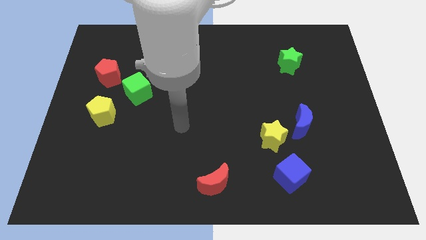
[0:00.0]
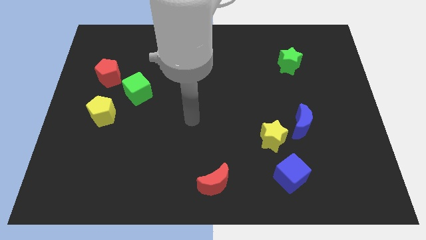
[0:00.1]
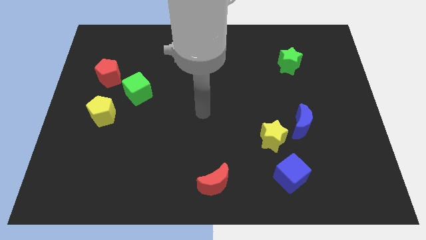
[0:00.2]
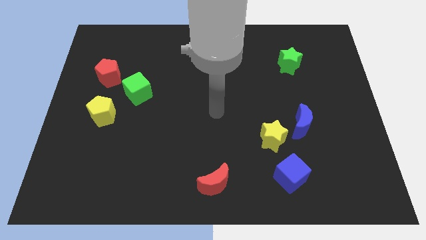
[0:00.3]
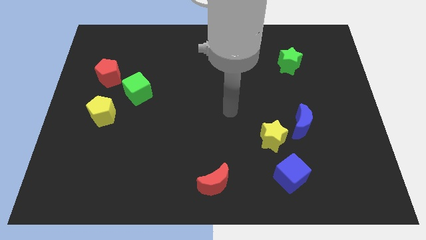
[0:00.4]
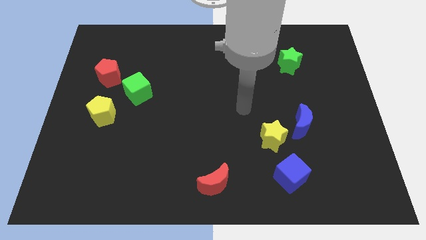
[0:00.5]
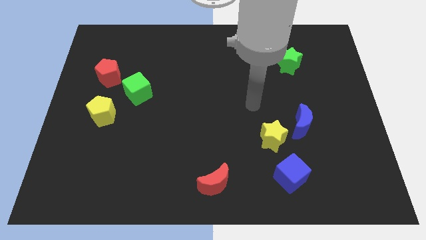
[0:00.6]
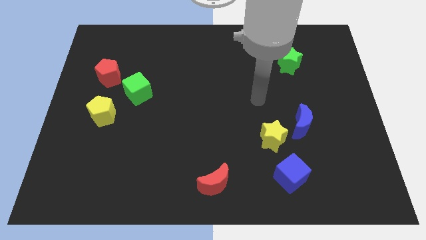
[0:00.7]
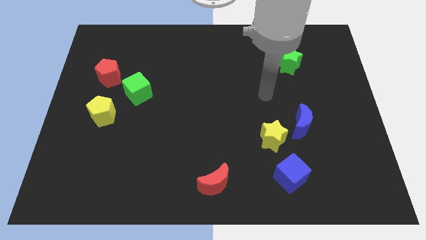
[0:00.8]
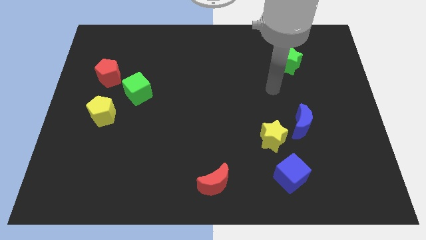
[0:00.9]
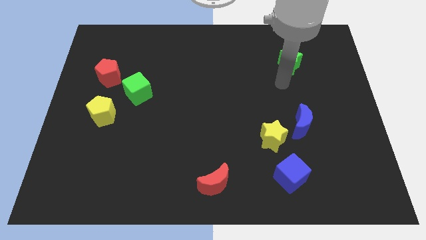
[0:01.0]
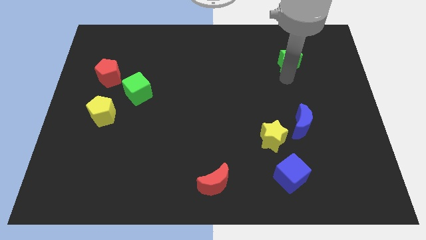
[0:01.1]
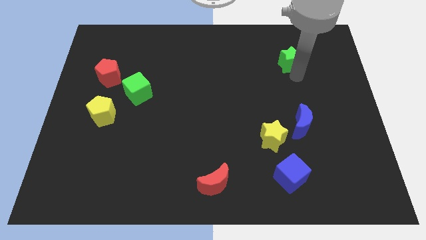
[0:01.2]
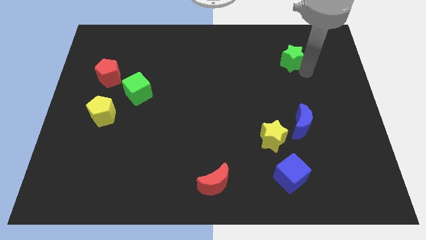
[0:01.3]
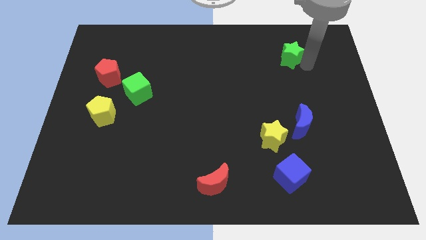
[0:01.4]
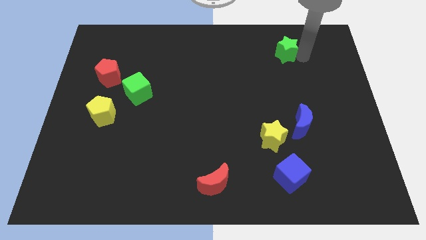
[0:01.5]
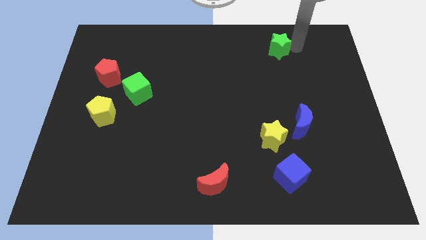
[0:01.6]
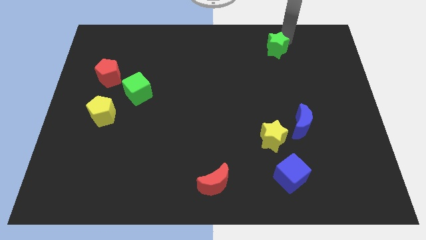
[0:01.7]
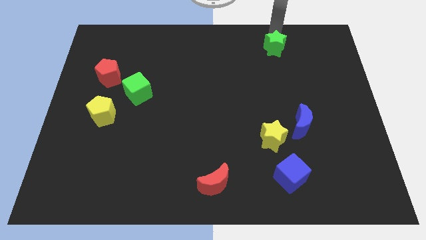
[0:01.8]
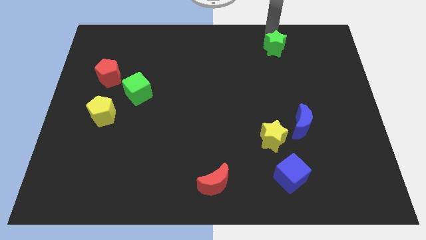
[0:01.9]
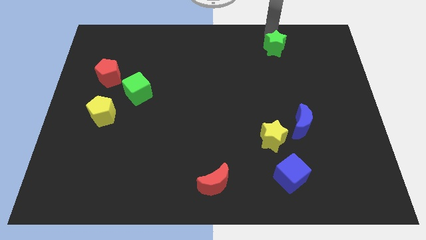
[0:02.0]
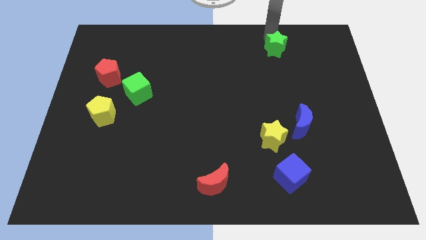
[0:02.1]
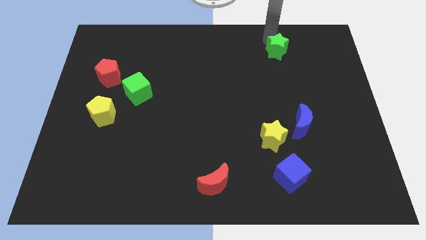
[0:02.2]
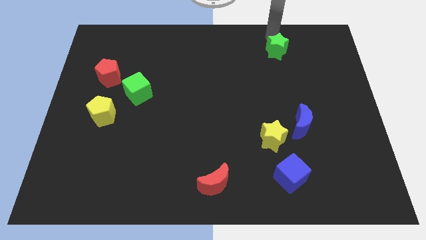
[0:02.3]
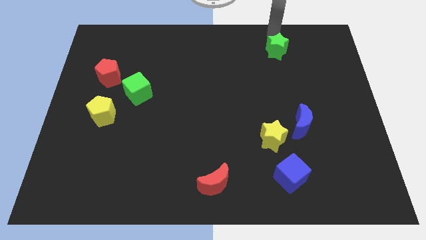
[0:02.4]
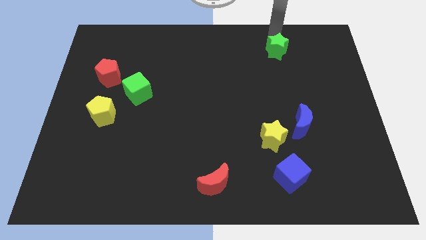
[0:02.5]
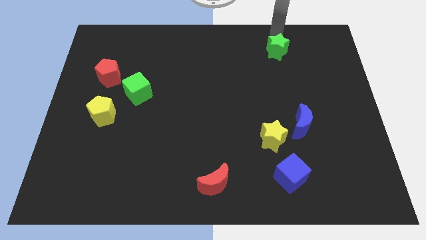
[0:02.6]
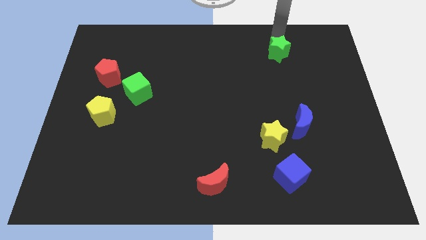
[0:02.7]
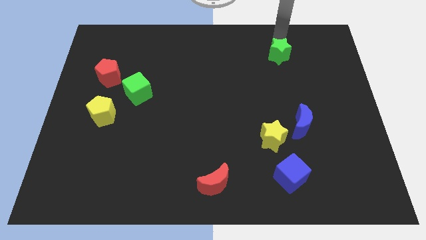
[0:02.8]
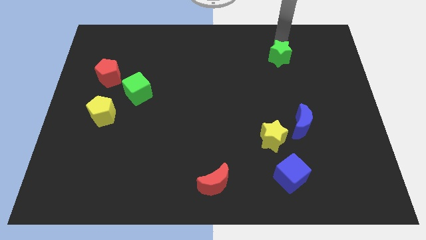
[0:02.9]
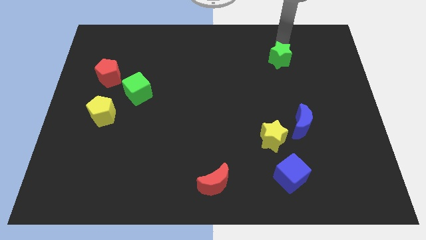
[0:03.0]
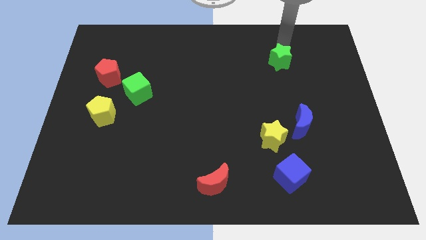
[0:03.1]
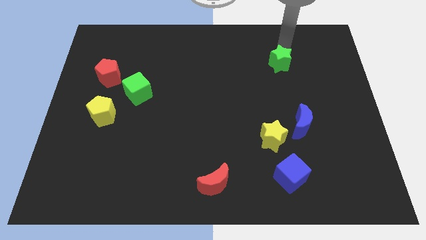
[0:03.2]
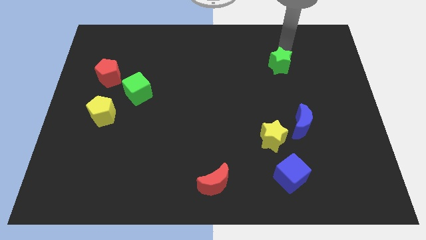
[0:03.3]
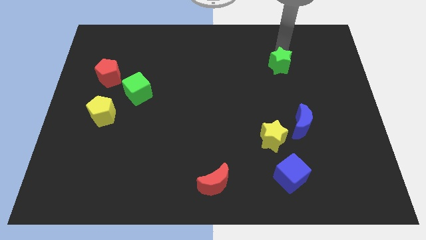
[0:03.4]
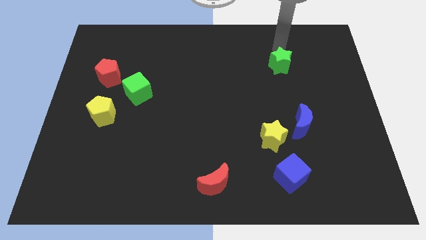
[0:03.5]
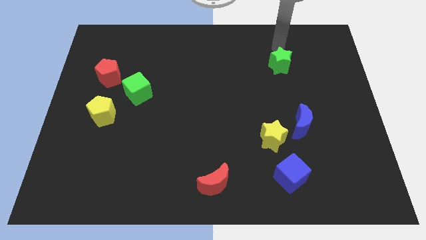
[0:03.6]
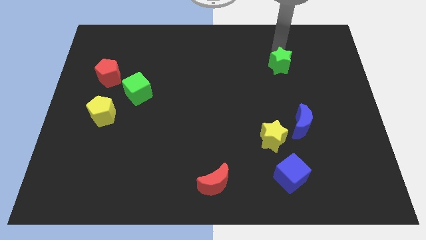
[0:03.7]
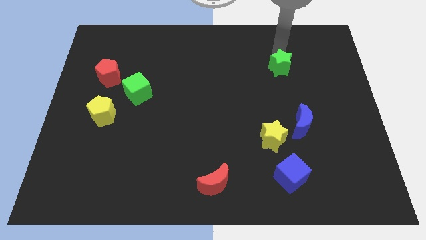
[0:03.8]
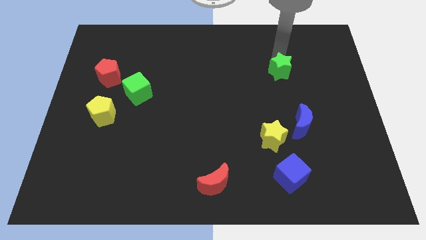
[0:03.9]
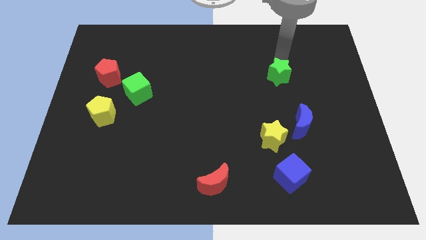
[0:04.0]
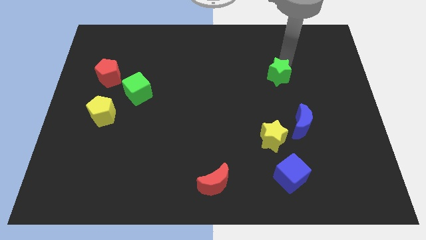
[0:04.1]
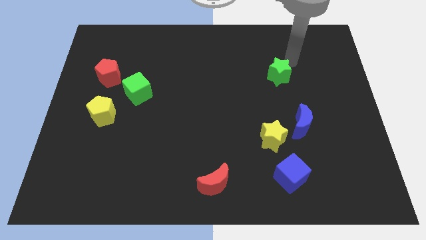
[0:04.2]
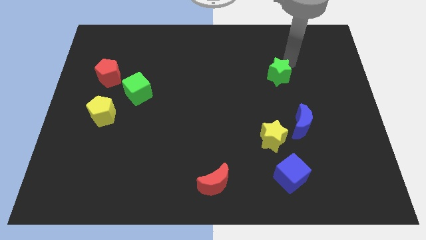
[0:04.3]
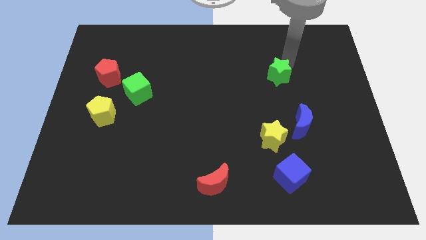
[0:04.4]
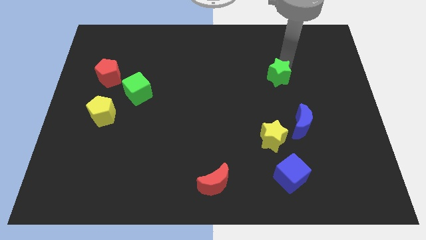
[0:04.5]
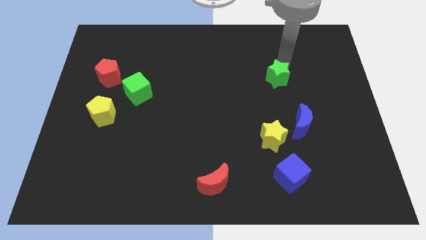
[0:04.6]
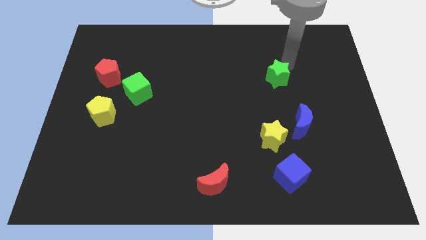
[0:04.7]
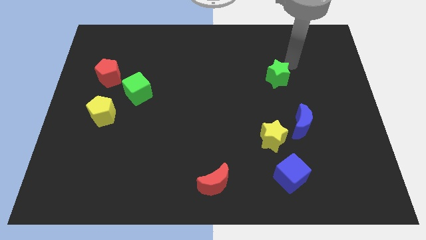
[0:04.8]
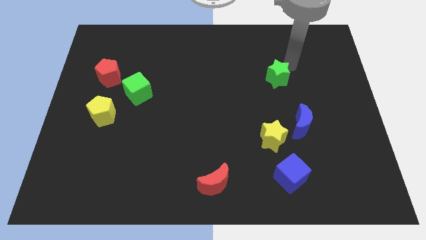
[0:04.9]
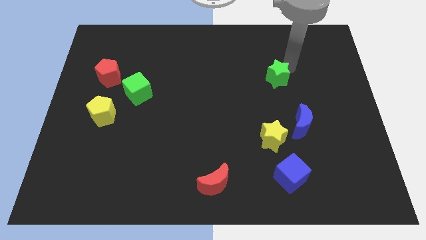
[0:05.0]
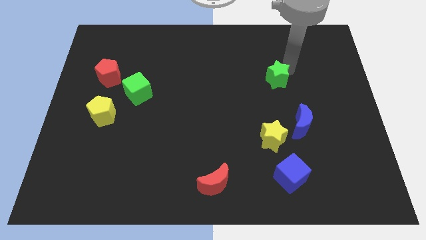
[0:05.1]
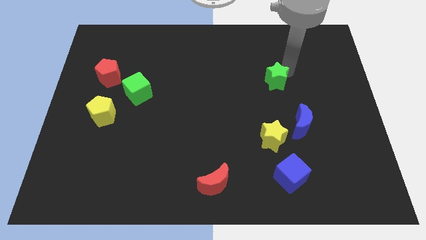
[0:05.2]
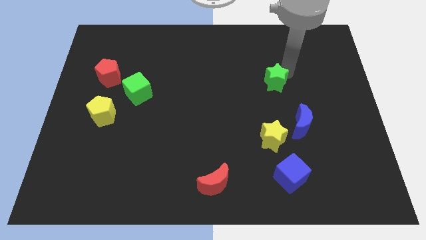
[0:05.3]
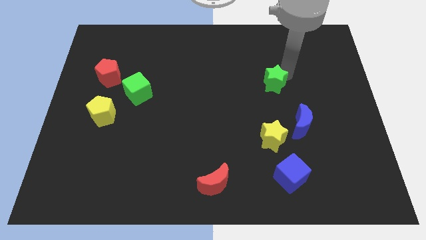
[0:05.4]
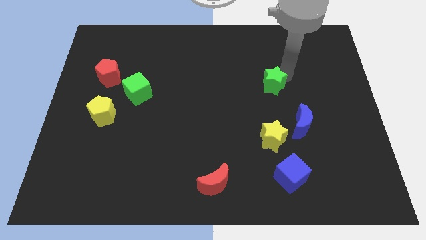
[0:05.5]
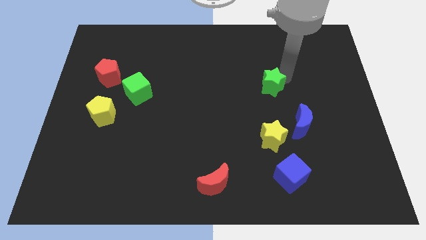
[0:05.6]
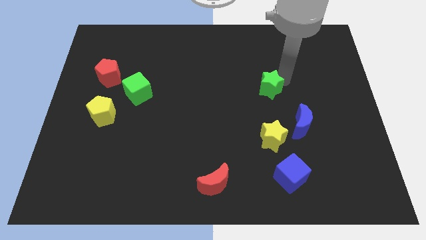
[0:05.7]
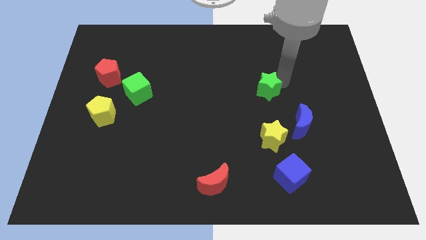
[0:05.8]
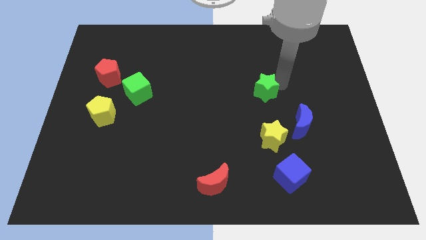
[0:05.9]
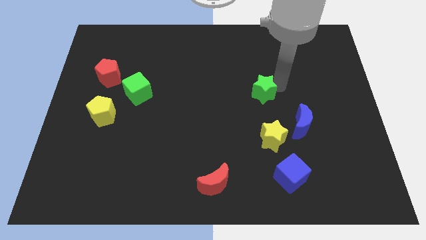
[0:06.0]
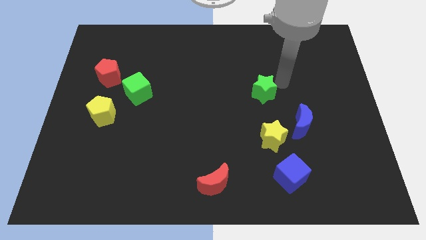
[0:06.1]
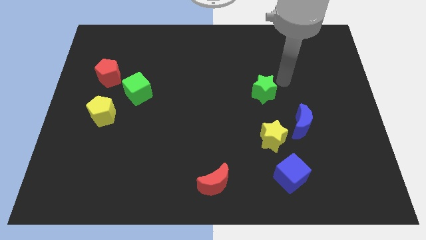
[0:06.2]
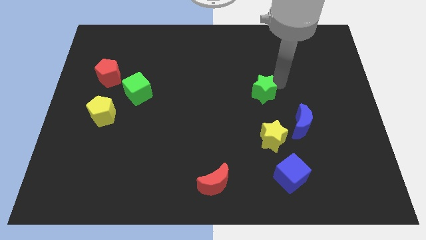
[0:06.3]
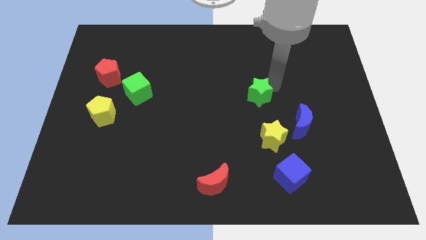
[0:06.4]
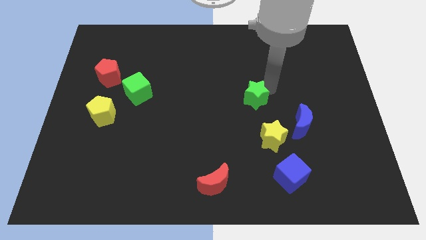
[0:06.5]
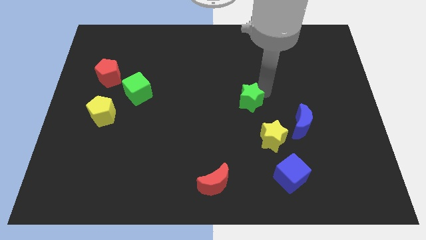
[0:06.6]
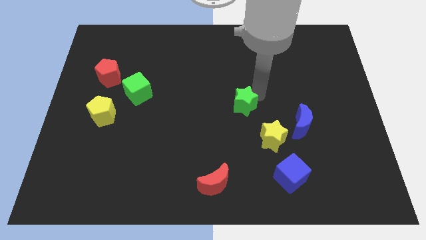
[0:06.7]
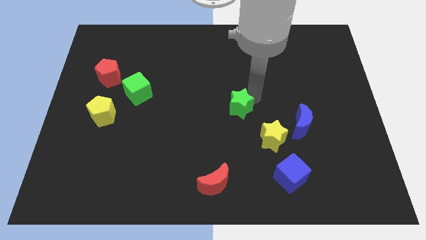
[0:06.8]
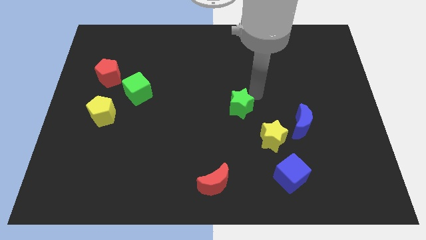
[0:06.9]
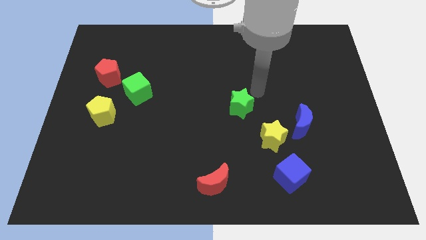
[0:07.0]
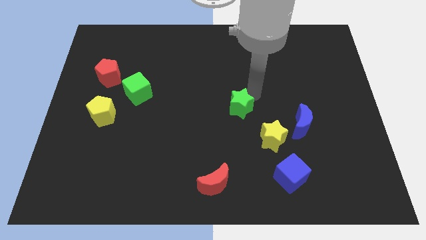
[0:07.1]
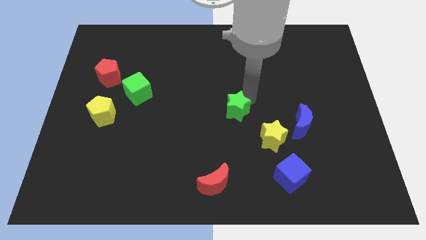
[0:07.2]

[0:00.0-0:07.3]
move the green star diagonally down and left

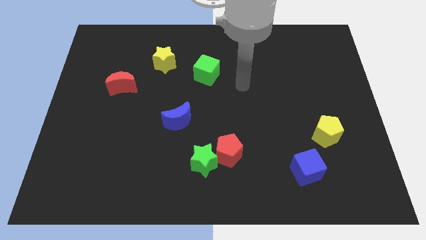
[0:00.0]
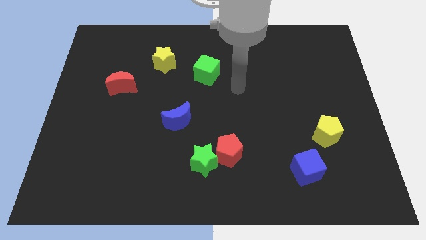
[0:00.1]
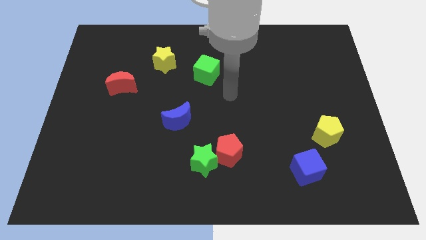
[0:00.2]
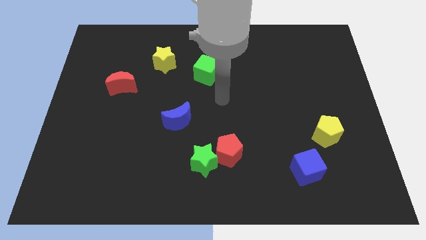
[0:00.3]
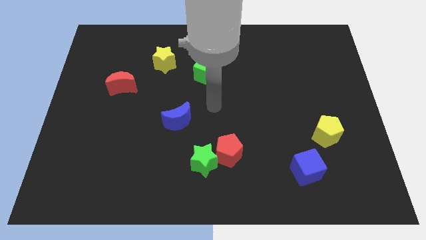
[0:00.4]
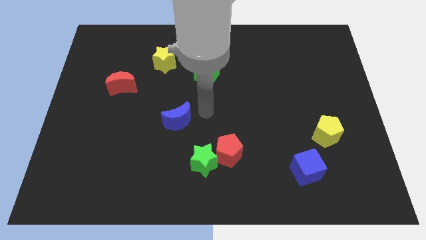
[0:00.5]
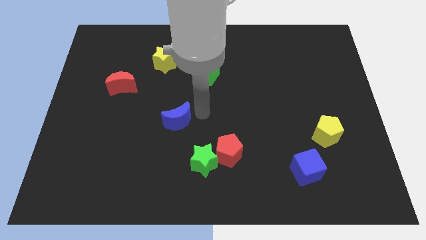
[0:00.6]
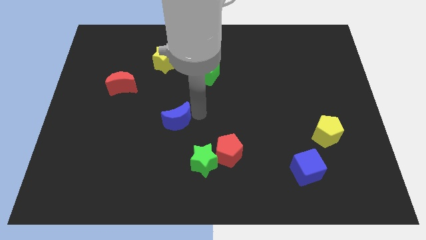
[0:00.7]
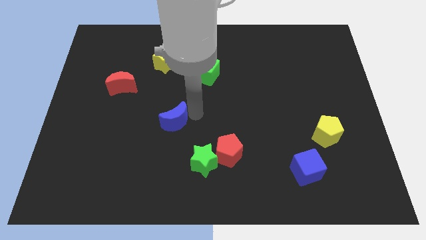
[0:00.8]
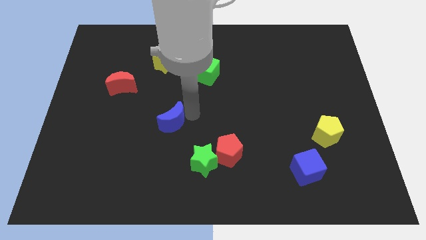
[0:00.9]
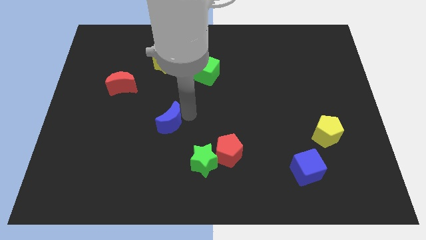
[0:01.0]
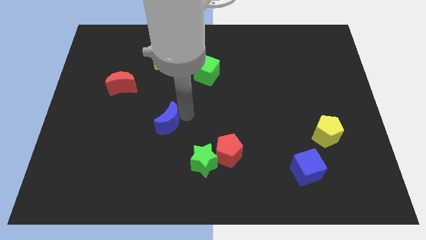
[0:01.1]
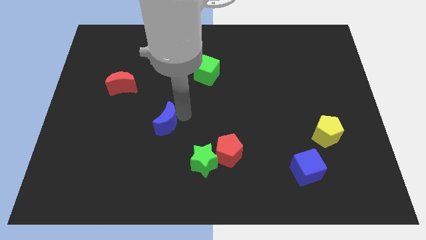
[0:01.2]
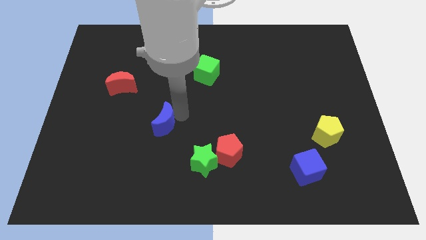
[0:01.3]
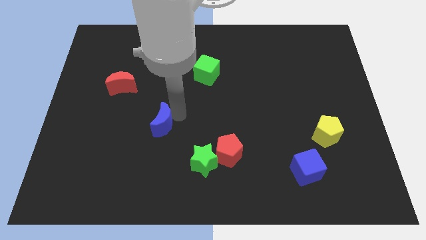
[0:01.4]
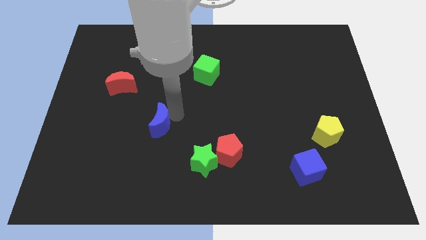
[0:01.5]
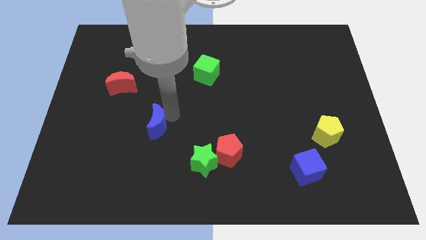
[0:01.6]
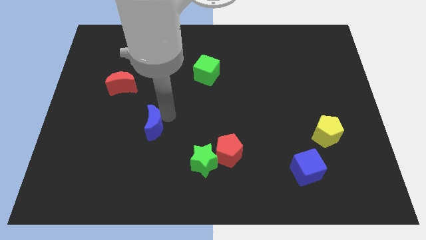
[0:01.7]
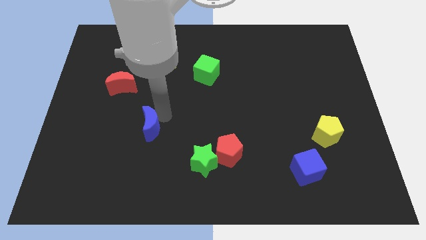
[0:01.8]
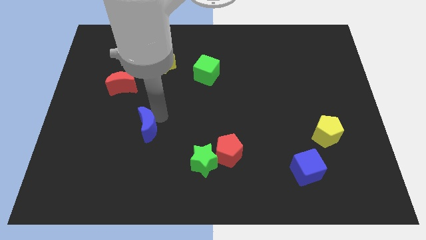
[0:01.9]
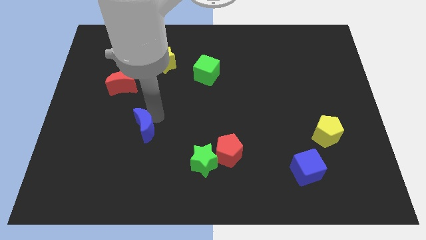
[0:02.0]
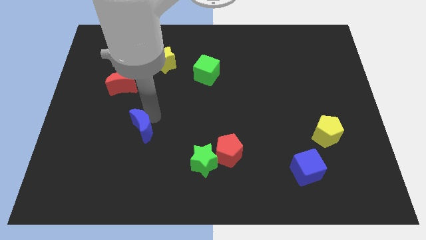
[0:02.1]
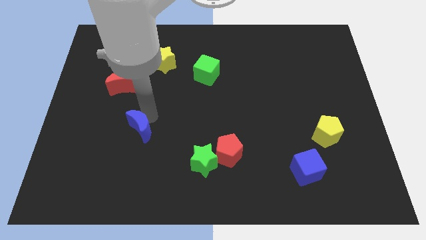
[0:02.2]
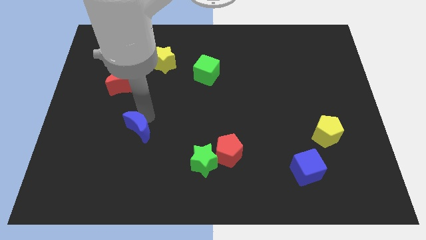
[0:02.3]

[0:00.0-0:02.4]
push the blue moon slightly diagonally downwards and left
